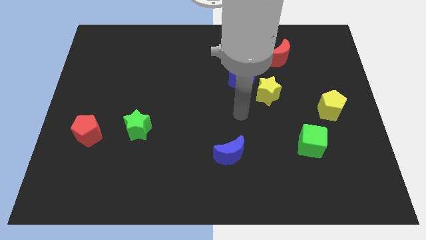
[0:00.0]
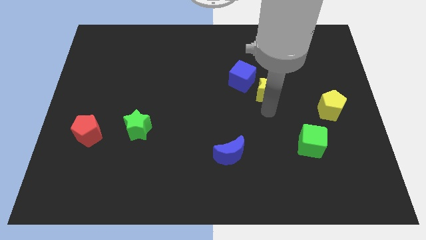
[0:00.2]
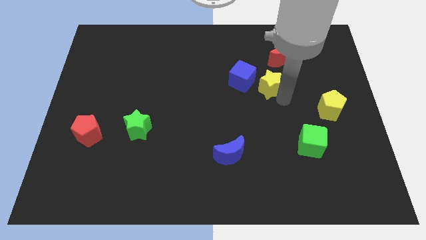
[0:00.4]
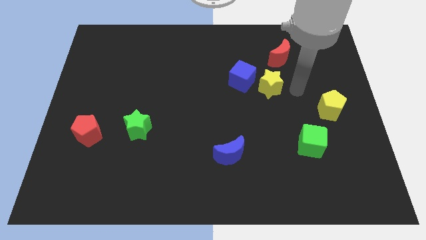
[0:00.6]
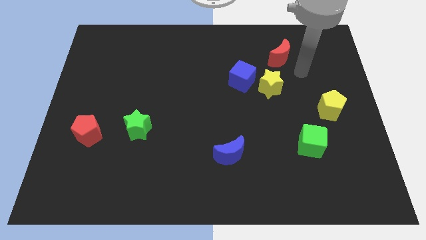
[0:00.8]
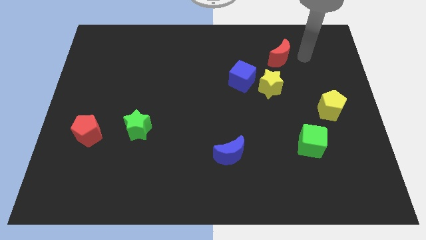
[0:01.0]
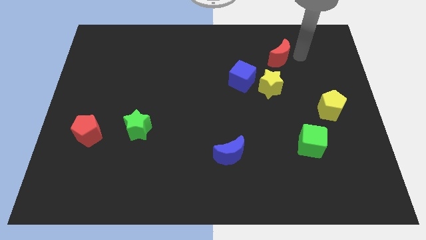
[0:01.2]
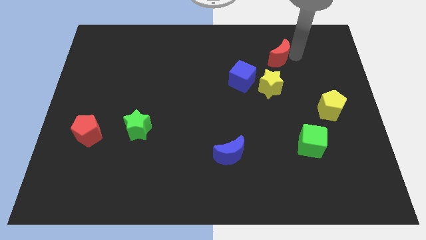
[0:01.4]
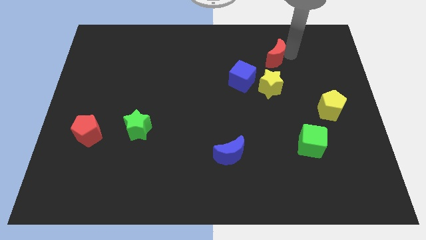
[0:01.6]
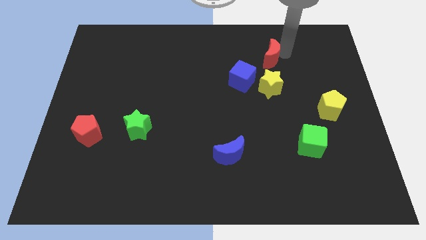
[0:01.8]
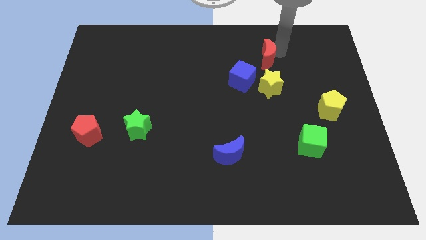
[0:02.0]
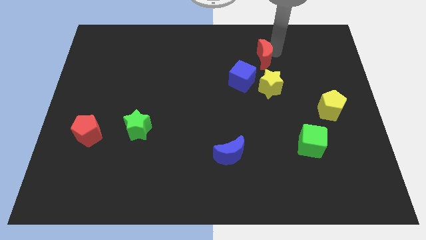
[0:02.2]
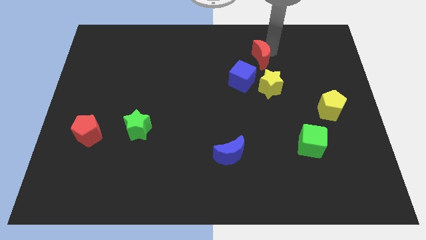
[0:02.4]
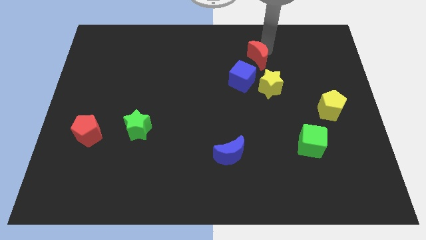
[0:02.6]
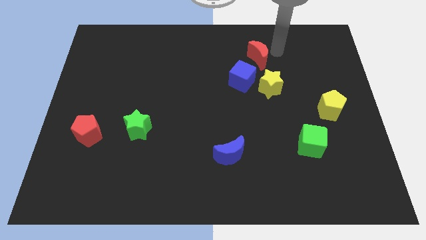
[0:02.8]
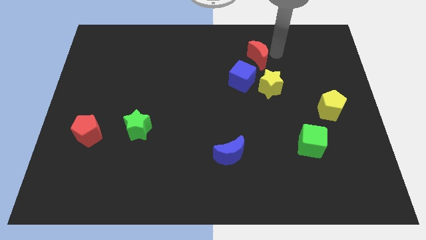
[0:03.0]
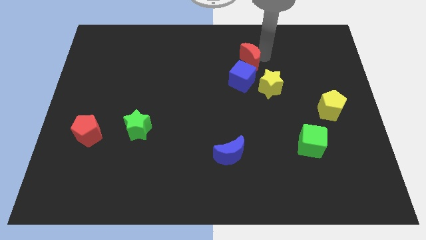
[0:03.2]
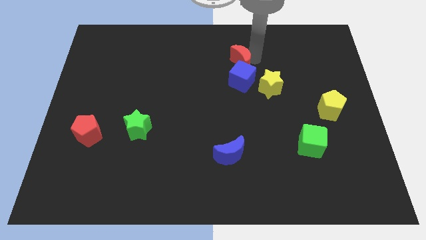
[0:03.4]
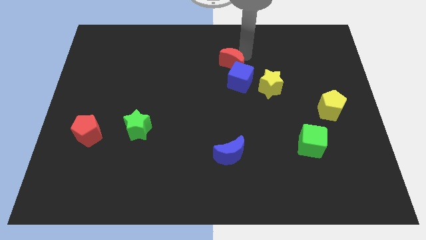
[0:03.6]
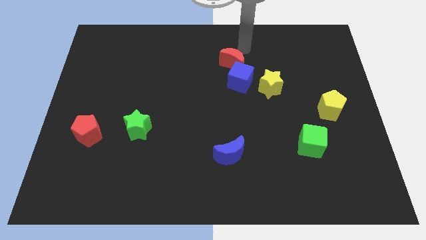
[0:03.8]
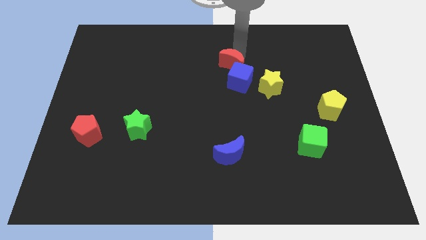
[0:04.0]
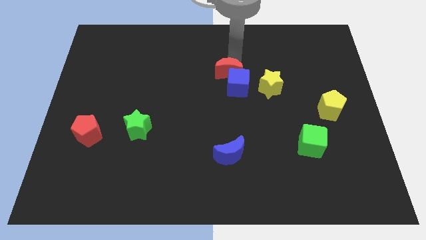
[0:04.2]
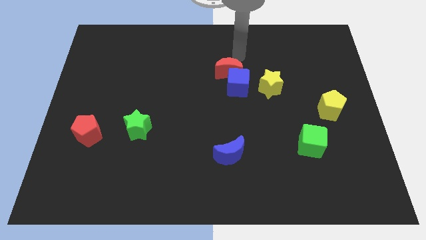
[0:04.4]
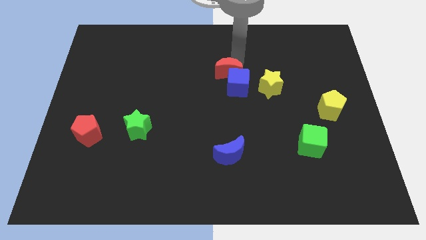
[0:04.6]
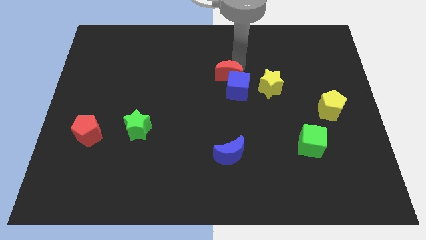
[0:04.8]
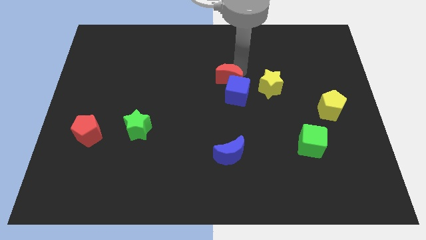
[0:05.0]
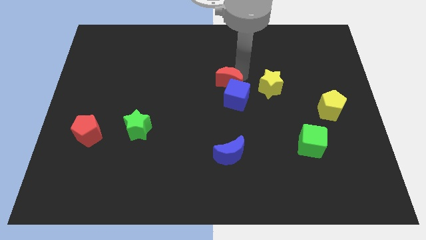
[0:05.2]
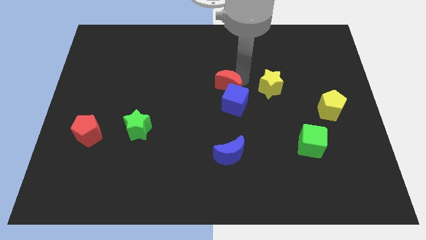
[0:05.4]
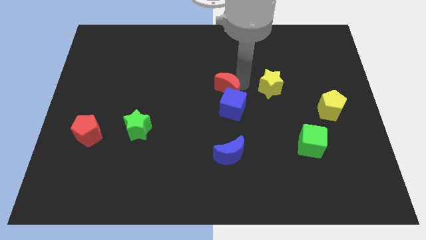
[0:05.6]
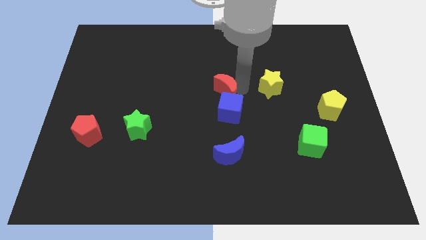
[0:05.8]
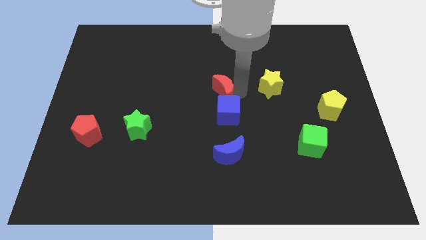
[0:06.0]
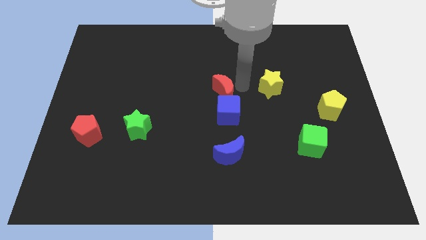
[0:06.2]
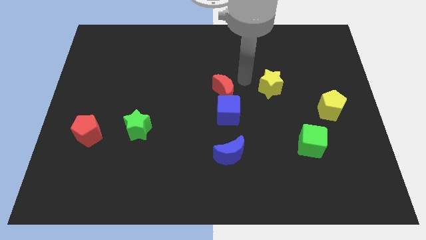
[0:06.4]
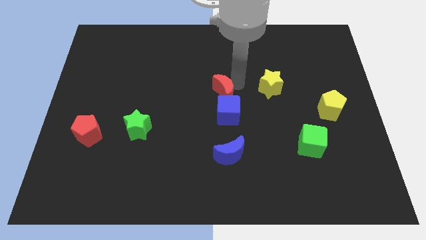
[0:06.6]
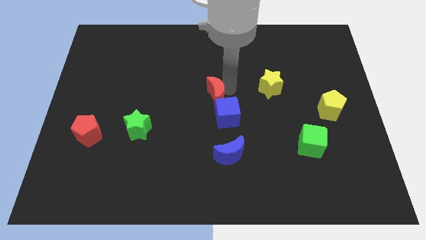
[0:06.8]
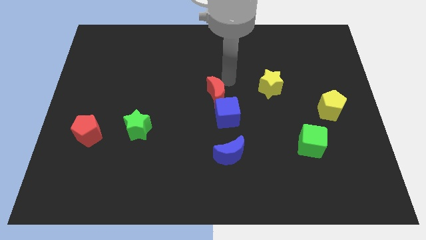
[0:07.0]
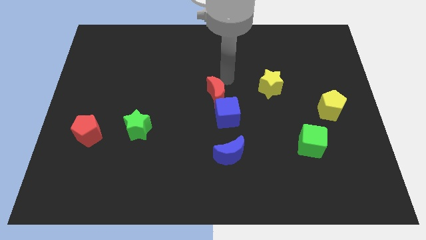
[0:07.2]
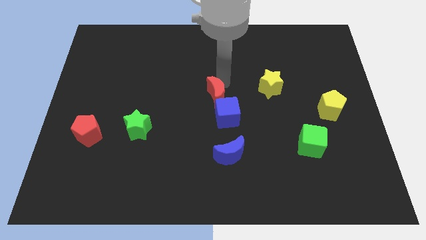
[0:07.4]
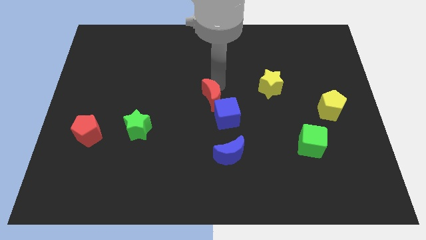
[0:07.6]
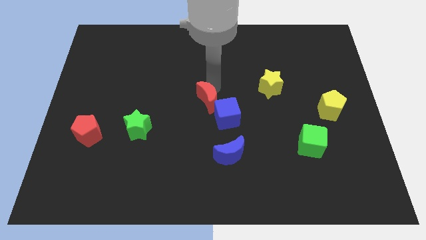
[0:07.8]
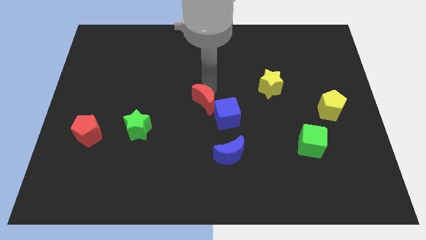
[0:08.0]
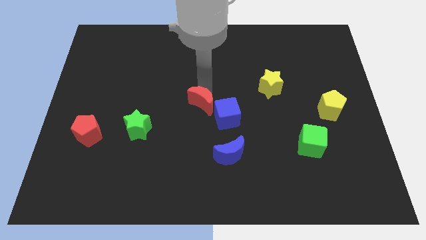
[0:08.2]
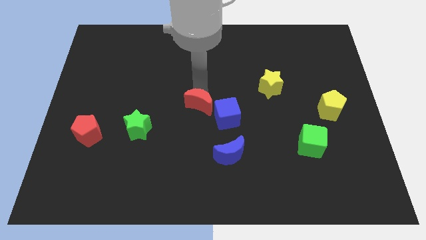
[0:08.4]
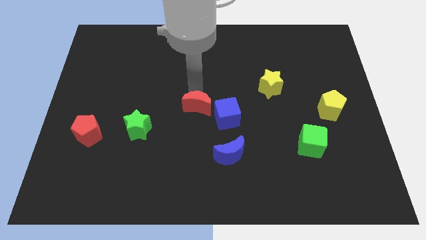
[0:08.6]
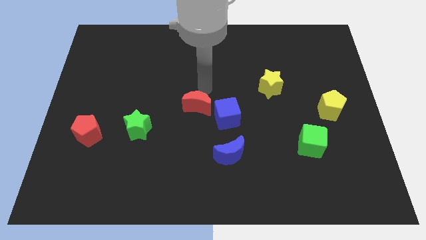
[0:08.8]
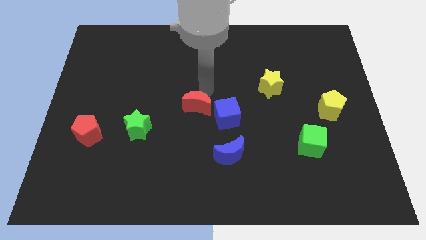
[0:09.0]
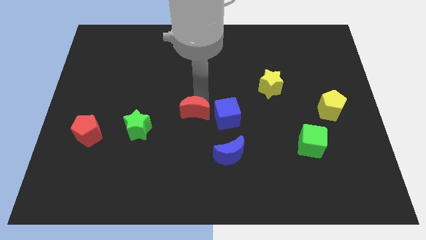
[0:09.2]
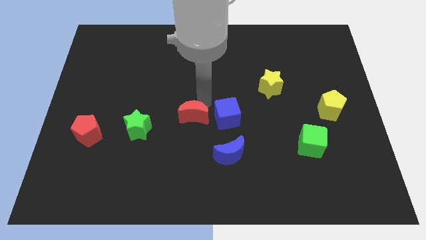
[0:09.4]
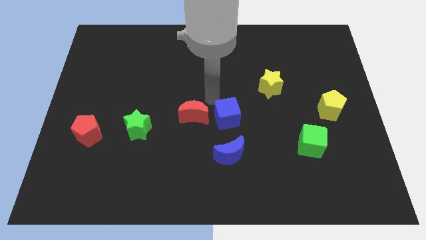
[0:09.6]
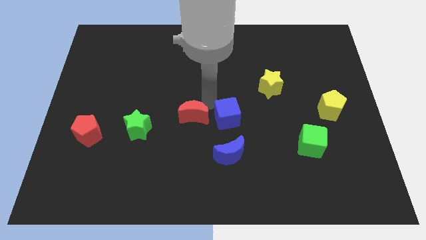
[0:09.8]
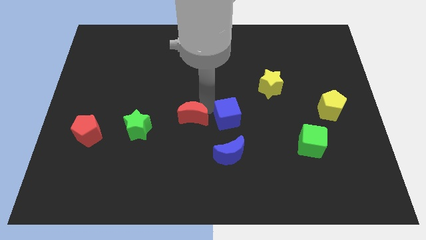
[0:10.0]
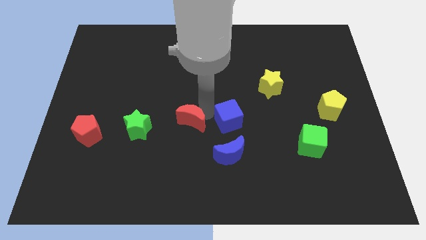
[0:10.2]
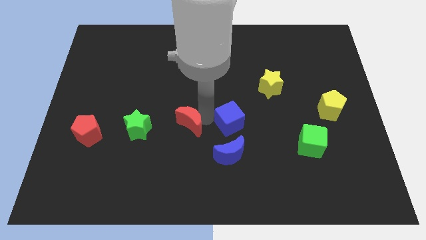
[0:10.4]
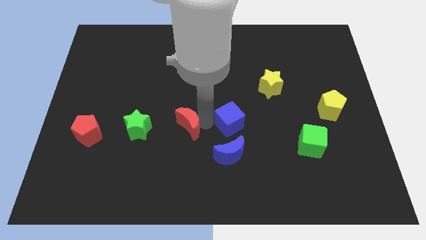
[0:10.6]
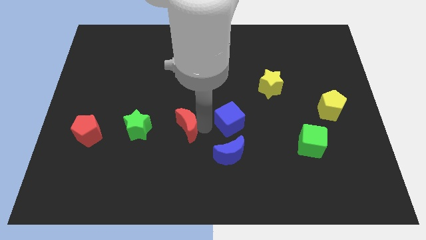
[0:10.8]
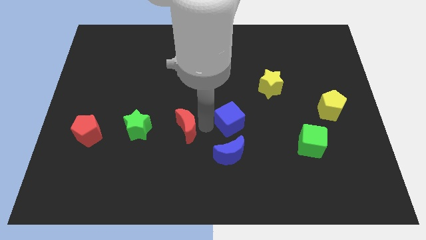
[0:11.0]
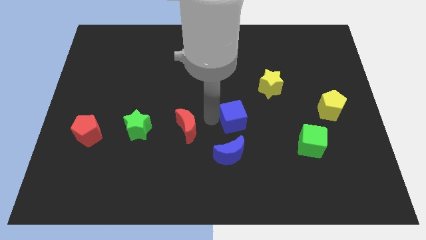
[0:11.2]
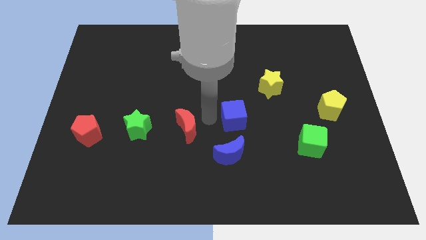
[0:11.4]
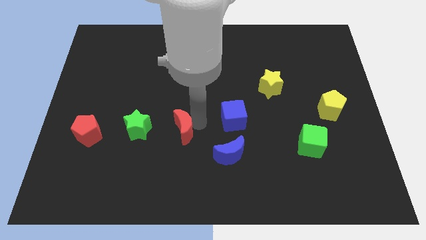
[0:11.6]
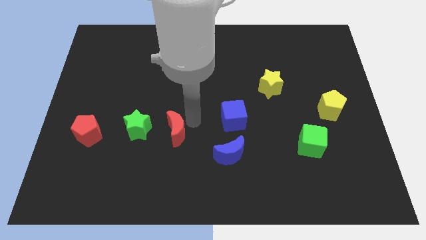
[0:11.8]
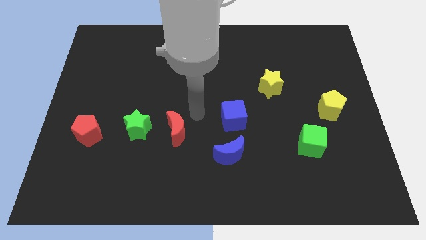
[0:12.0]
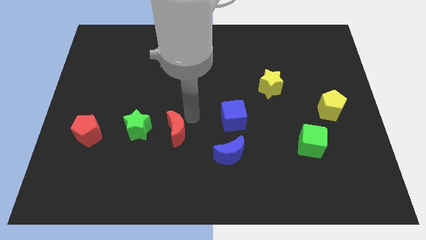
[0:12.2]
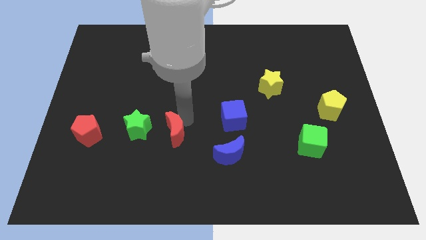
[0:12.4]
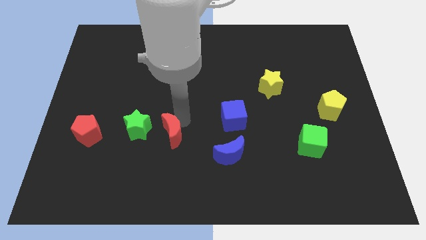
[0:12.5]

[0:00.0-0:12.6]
push the red moon diagonally down and to the right of the green star
